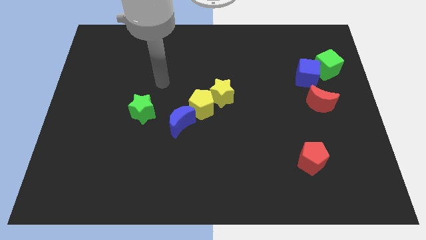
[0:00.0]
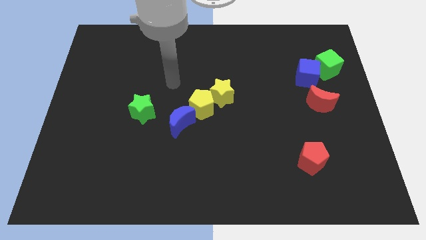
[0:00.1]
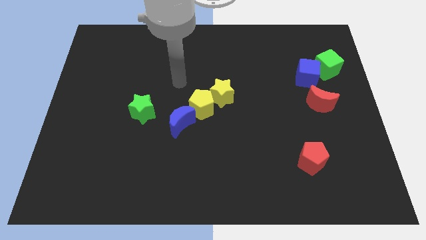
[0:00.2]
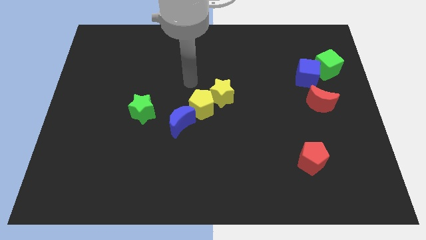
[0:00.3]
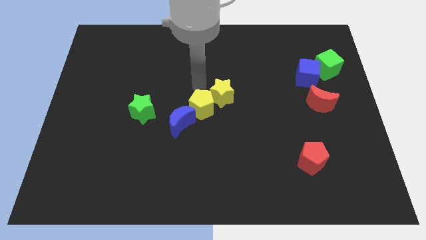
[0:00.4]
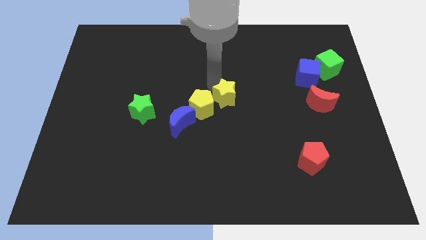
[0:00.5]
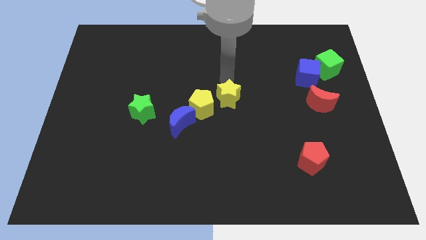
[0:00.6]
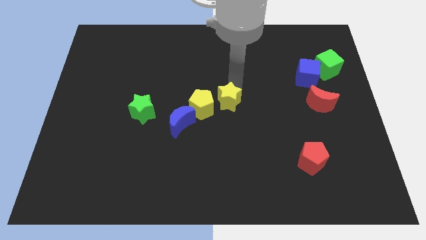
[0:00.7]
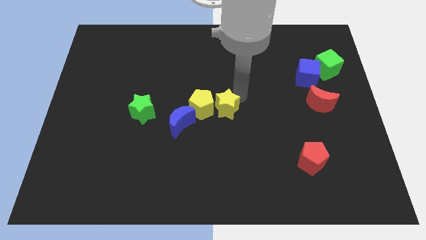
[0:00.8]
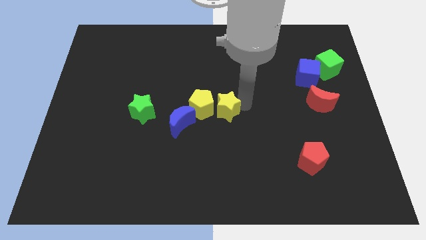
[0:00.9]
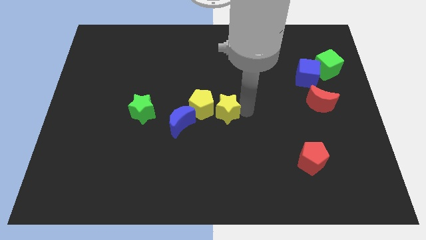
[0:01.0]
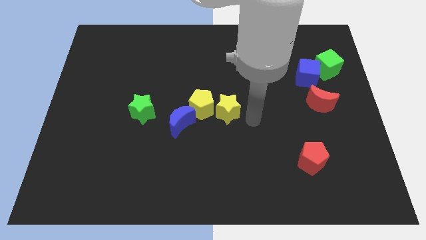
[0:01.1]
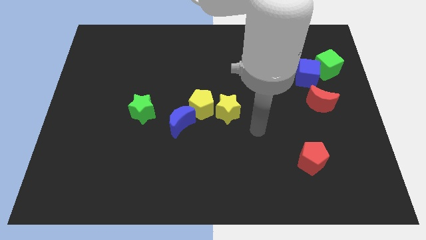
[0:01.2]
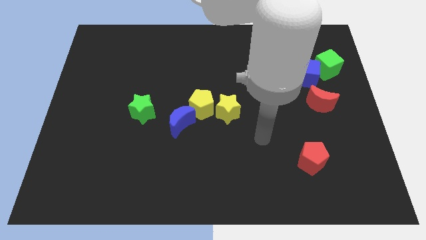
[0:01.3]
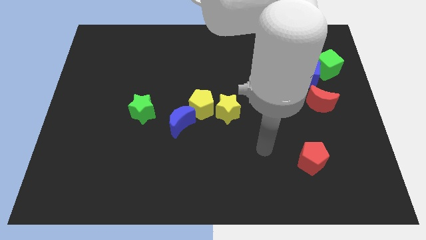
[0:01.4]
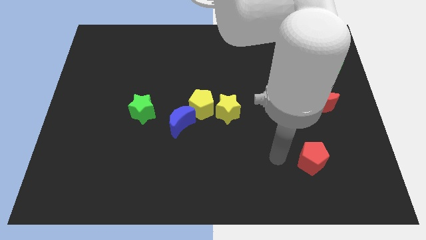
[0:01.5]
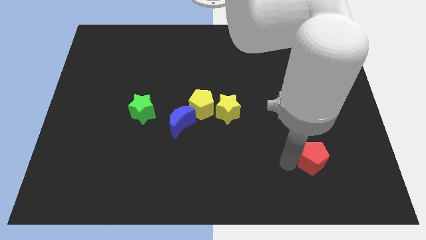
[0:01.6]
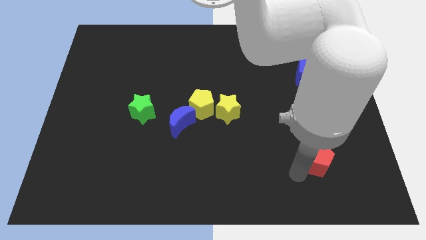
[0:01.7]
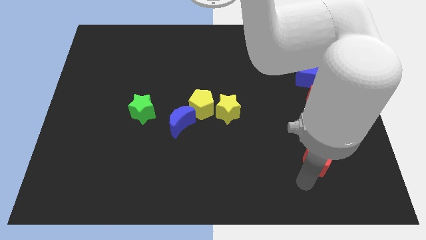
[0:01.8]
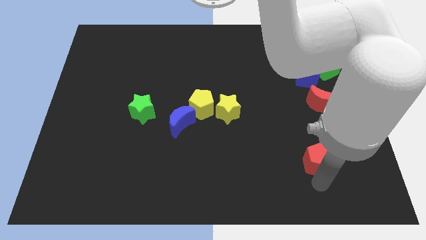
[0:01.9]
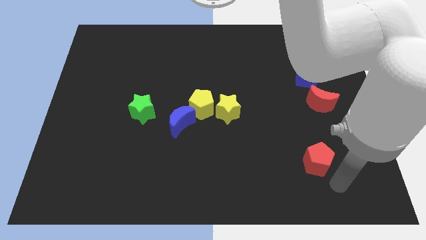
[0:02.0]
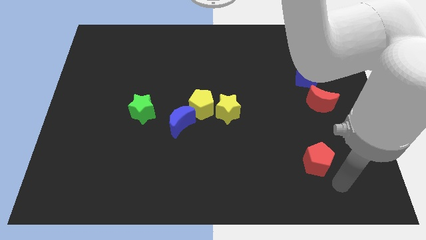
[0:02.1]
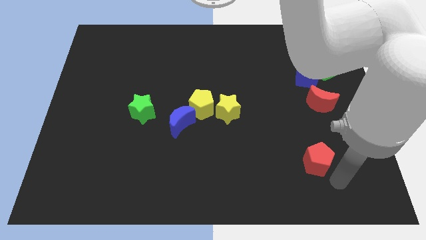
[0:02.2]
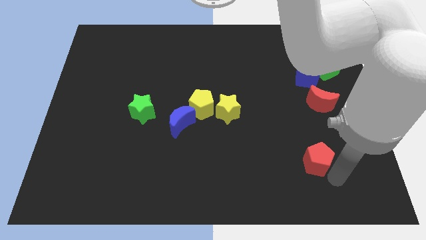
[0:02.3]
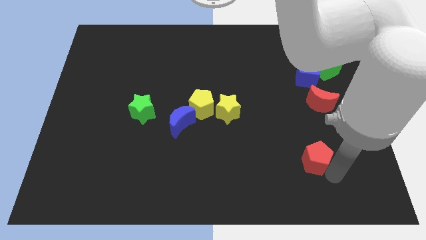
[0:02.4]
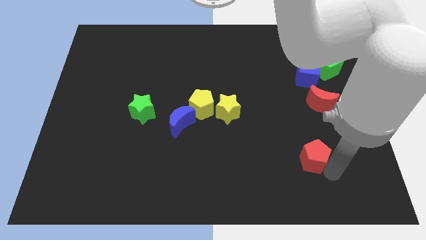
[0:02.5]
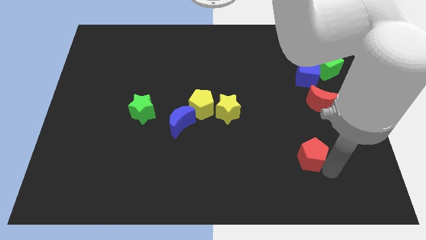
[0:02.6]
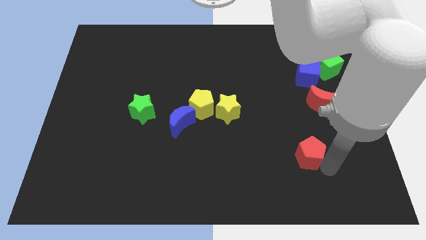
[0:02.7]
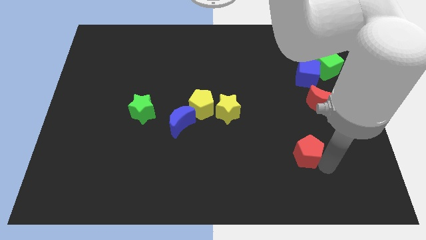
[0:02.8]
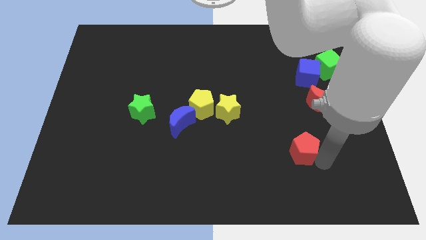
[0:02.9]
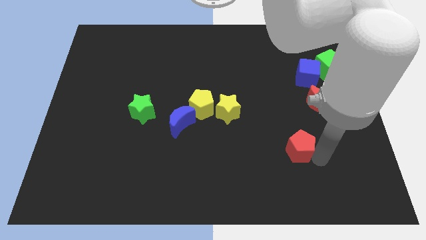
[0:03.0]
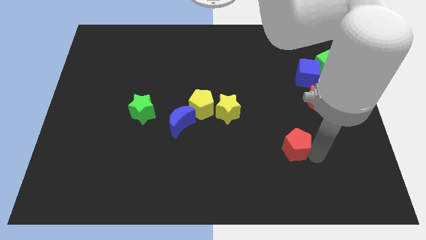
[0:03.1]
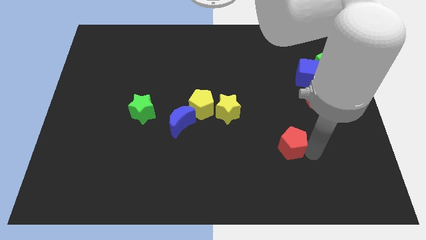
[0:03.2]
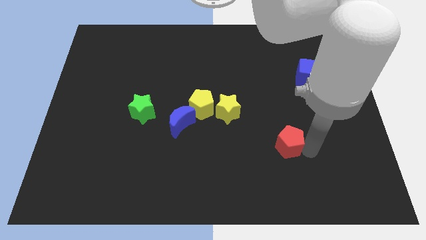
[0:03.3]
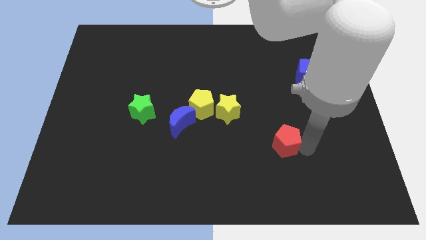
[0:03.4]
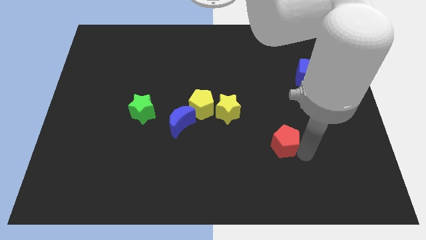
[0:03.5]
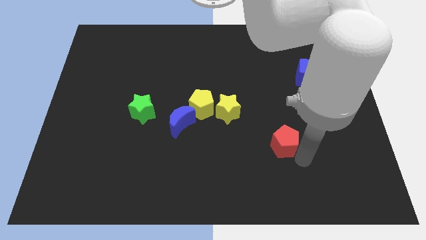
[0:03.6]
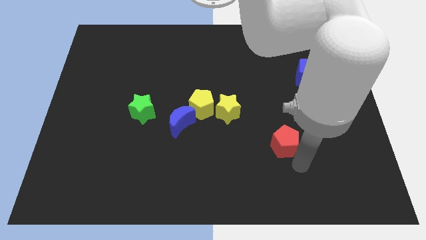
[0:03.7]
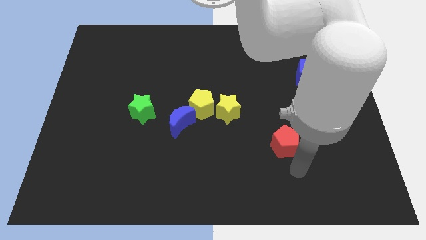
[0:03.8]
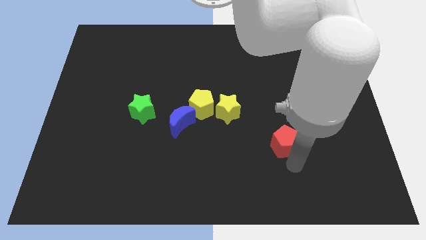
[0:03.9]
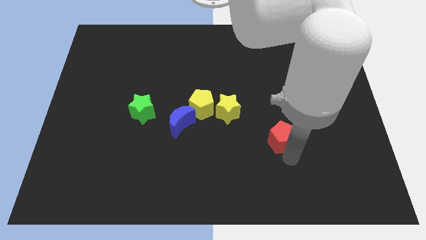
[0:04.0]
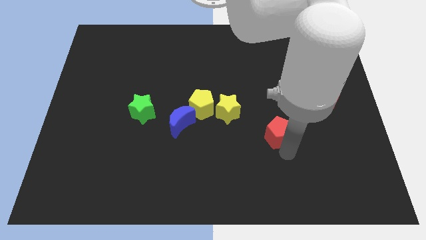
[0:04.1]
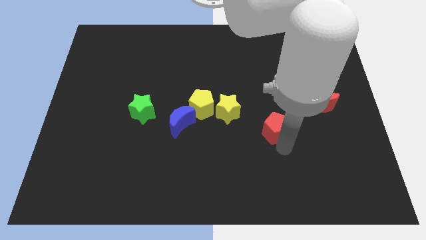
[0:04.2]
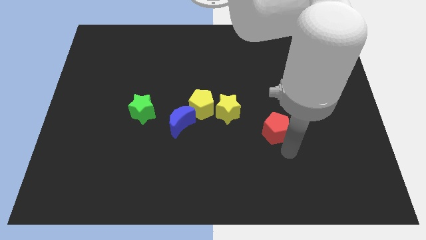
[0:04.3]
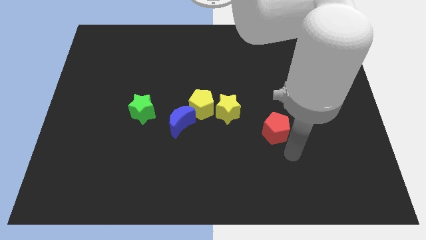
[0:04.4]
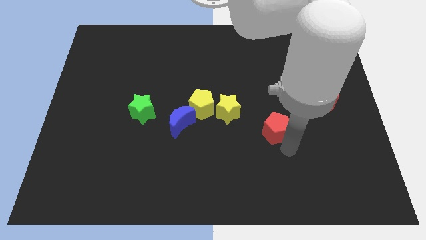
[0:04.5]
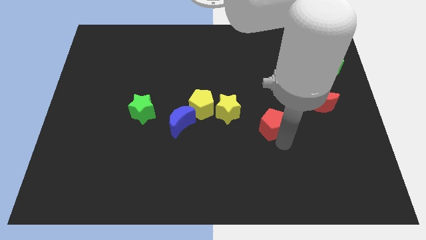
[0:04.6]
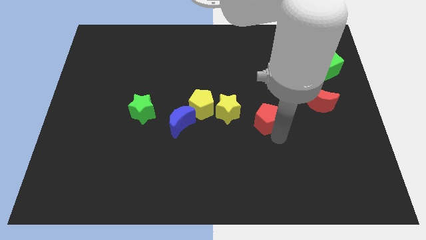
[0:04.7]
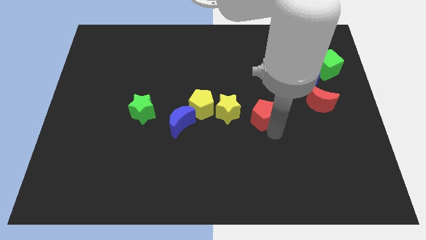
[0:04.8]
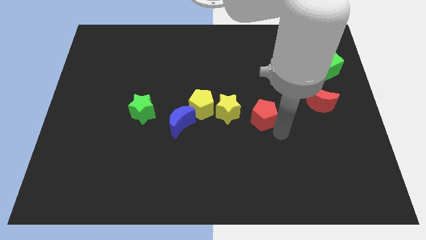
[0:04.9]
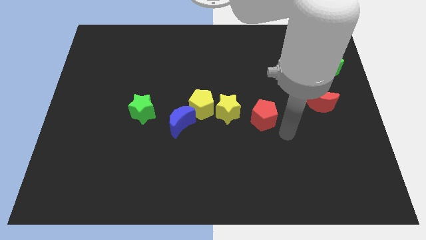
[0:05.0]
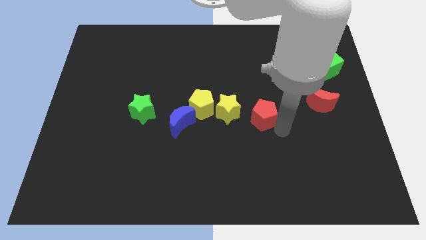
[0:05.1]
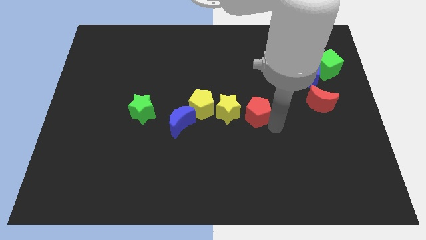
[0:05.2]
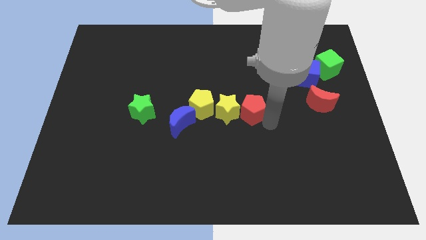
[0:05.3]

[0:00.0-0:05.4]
put the red pentagon towards the yellow star

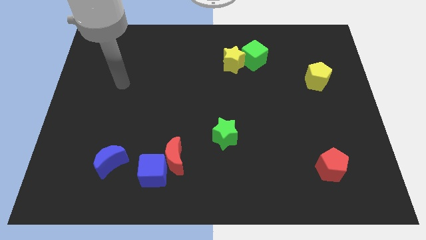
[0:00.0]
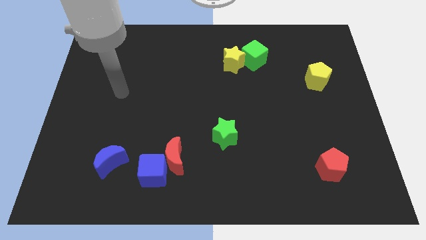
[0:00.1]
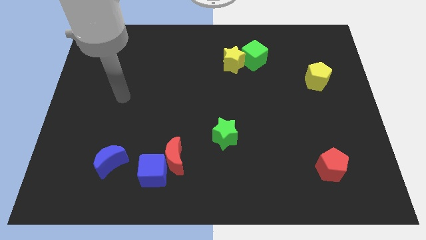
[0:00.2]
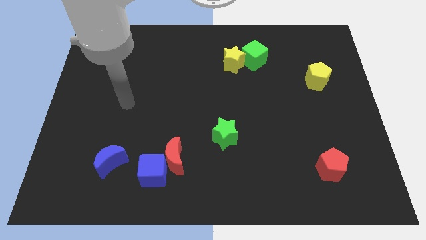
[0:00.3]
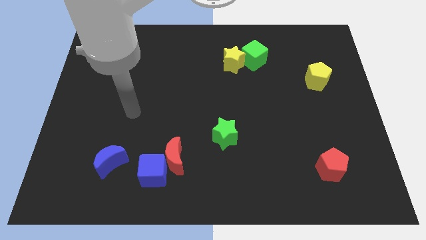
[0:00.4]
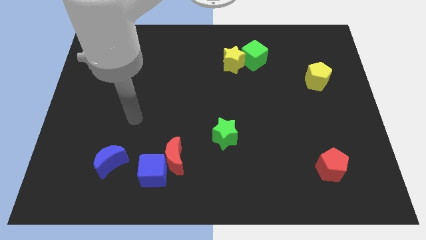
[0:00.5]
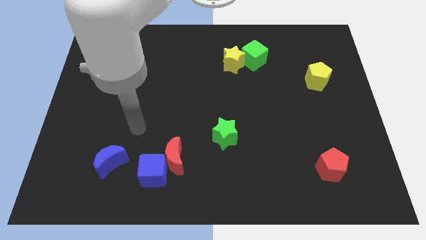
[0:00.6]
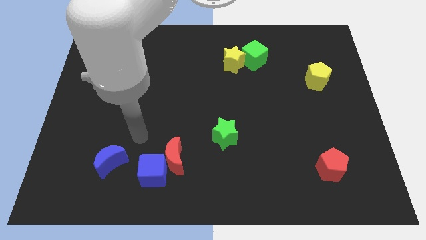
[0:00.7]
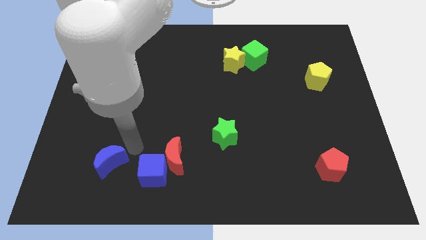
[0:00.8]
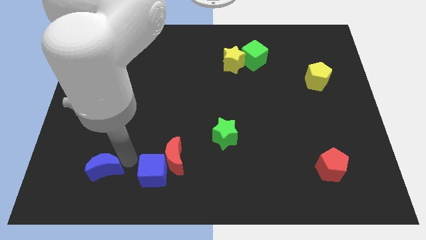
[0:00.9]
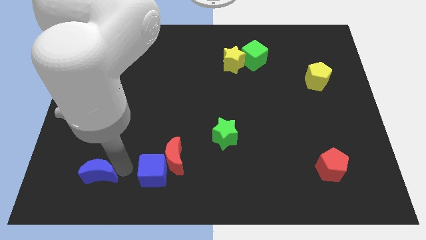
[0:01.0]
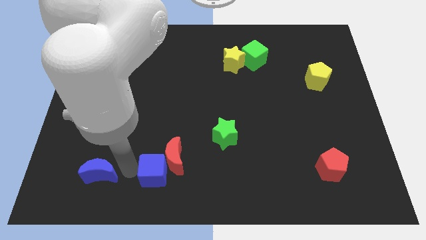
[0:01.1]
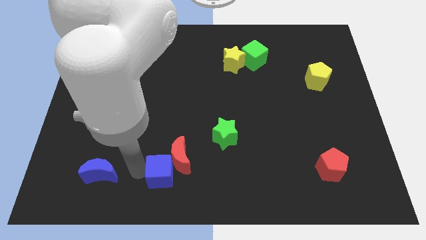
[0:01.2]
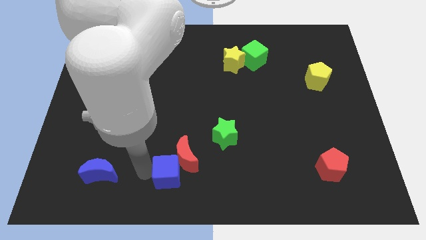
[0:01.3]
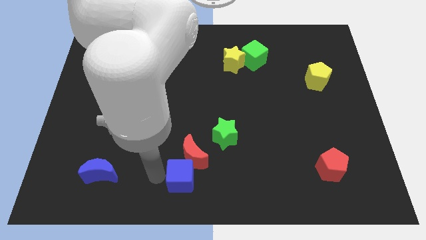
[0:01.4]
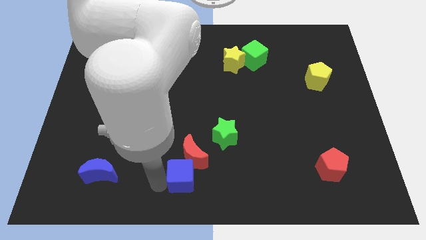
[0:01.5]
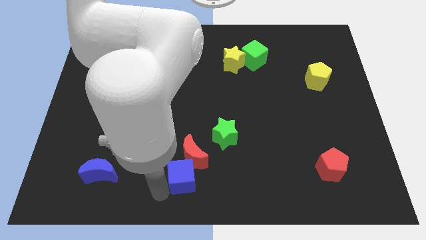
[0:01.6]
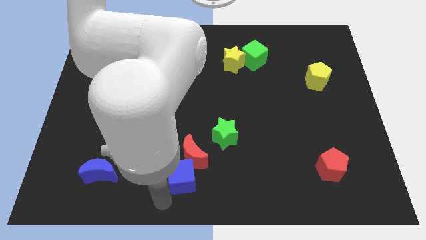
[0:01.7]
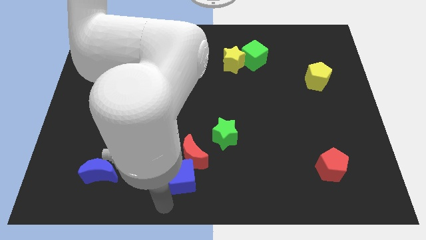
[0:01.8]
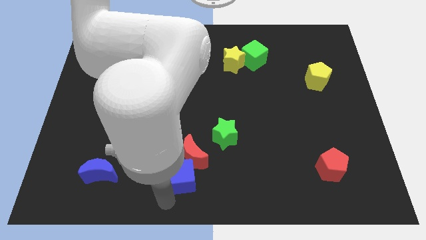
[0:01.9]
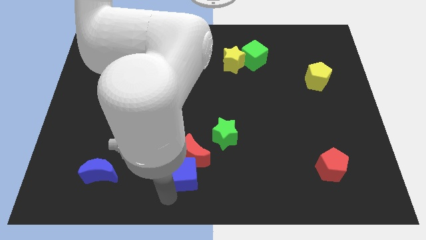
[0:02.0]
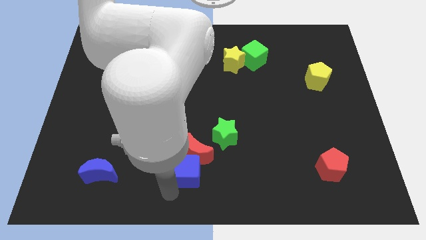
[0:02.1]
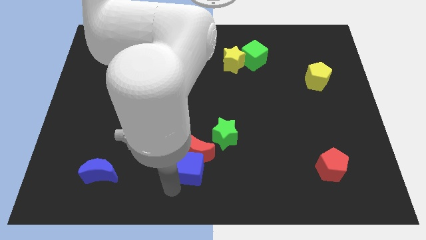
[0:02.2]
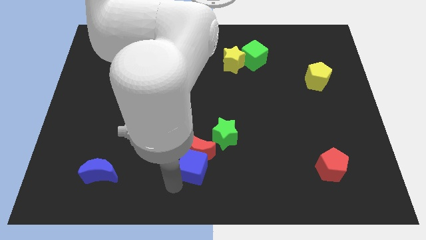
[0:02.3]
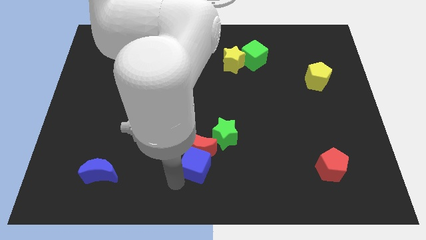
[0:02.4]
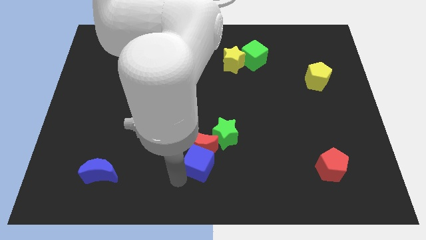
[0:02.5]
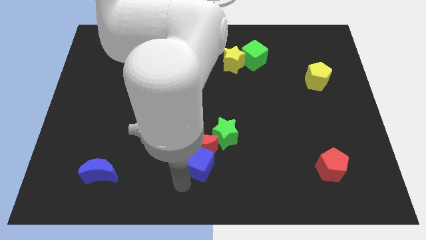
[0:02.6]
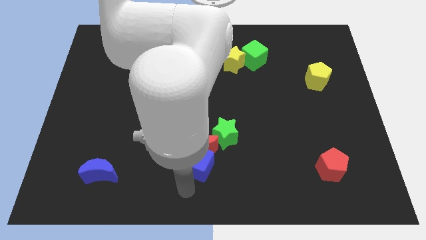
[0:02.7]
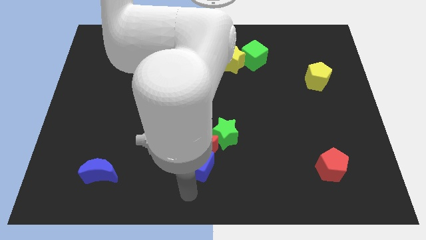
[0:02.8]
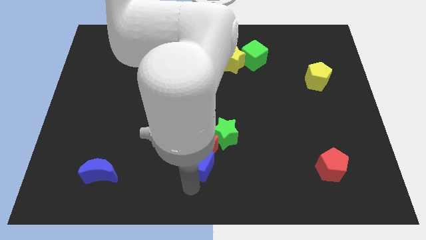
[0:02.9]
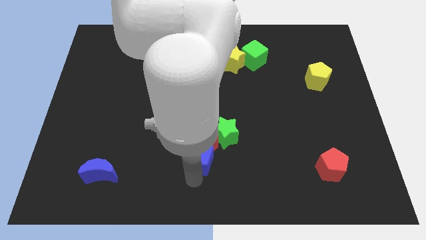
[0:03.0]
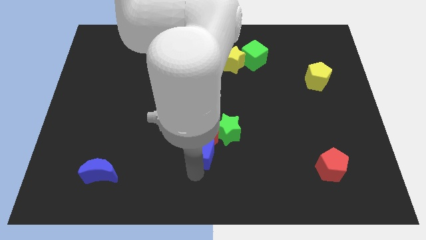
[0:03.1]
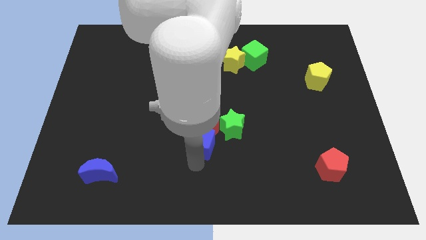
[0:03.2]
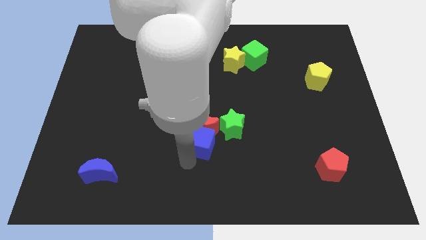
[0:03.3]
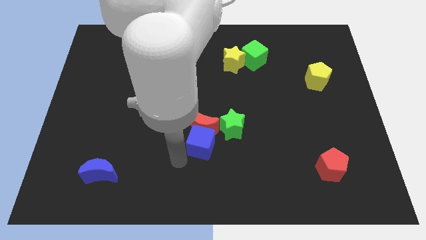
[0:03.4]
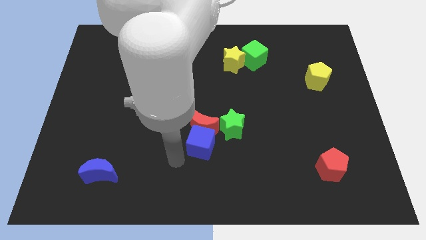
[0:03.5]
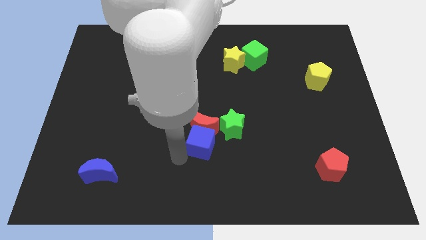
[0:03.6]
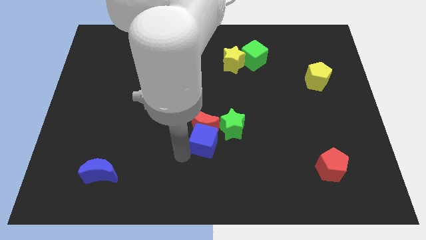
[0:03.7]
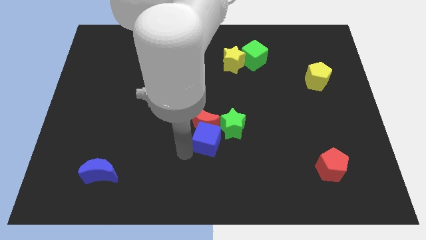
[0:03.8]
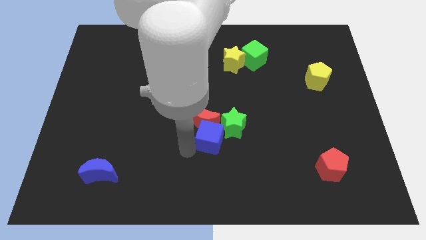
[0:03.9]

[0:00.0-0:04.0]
move the blue cube to the green star
